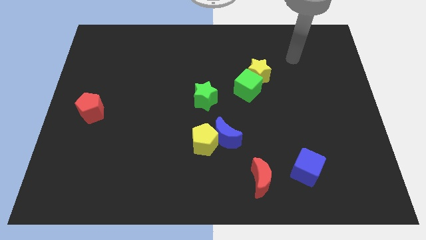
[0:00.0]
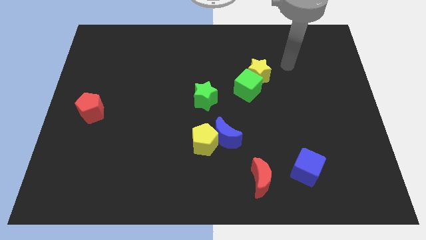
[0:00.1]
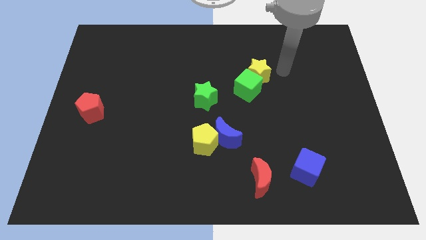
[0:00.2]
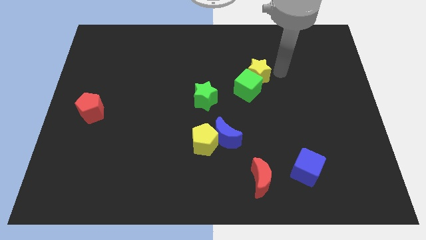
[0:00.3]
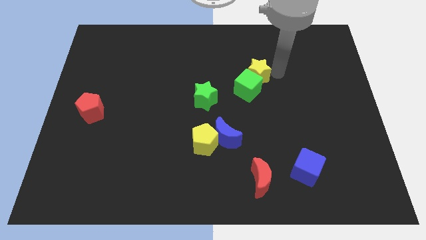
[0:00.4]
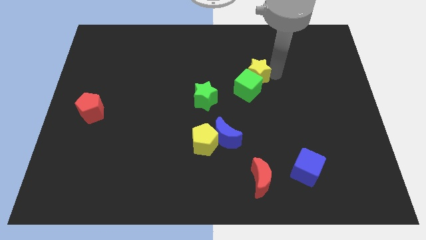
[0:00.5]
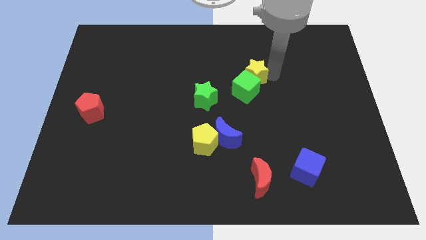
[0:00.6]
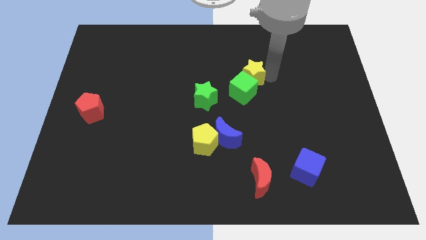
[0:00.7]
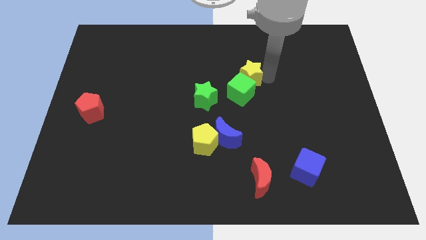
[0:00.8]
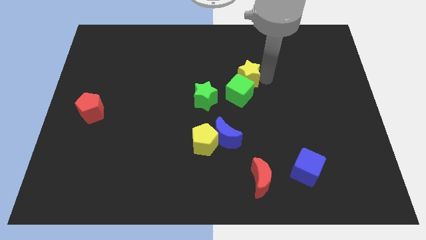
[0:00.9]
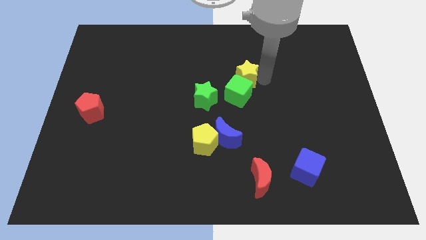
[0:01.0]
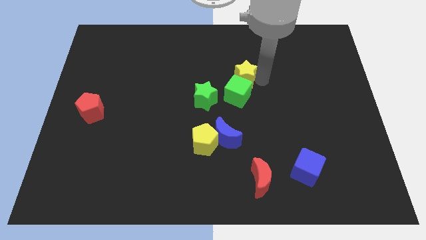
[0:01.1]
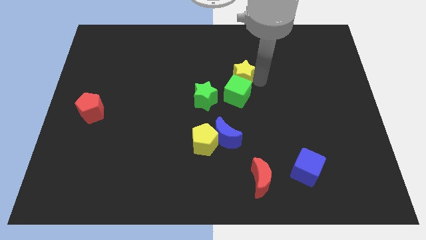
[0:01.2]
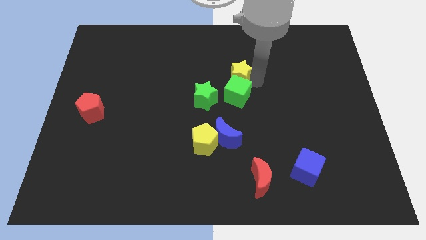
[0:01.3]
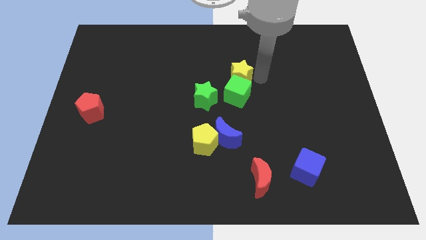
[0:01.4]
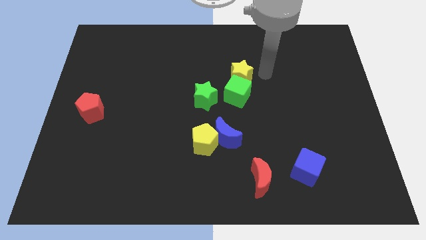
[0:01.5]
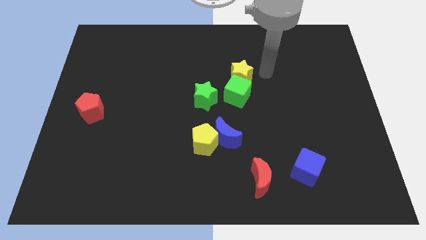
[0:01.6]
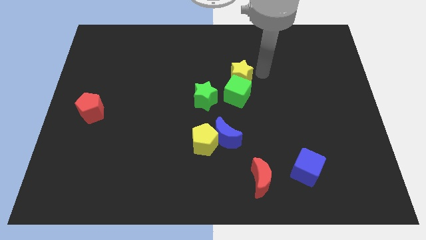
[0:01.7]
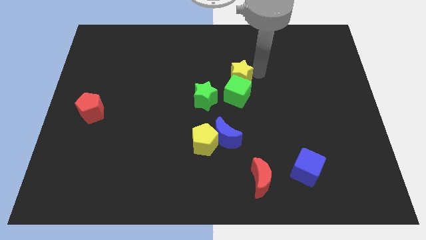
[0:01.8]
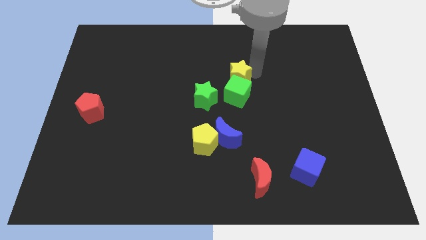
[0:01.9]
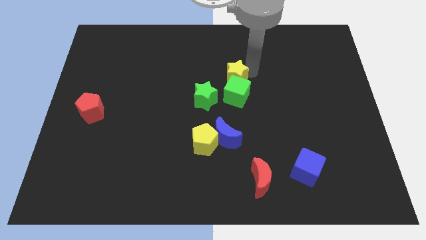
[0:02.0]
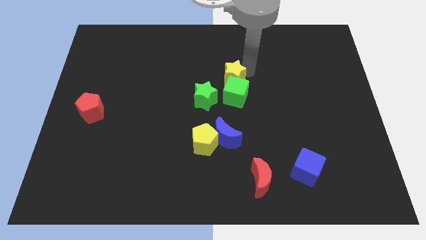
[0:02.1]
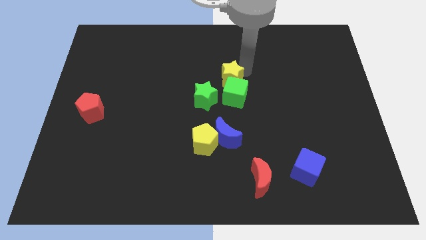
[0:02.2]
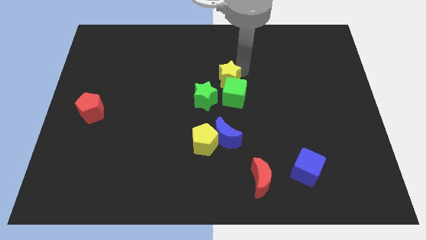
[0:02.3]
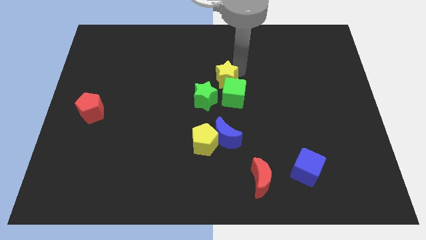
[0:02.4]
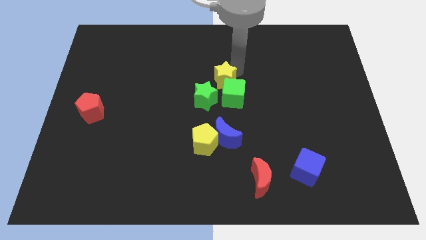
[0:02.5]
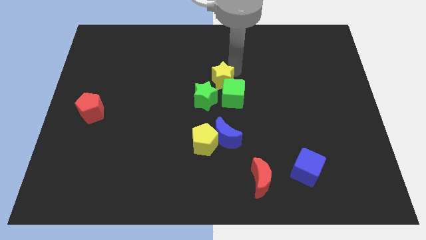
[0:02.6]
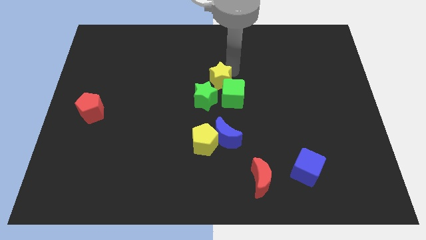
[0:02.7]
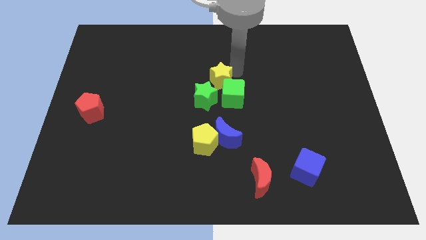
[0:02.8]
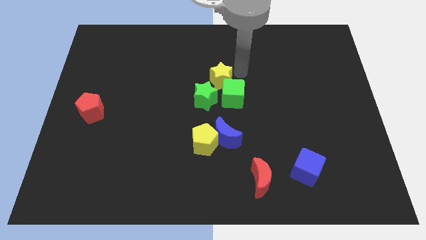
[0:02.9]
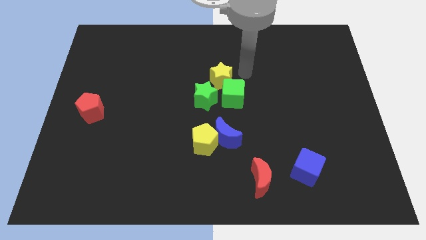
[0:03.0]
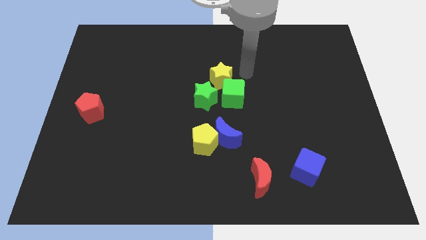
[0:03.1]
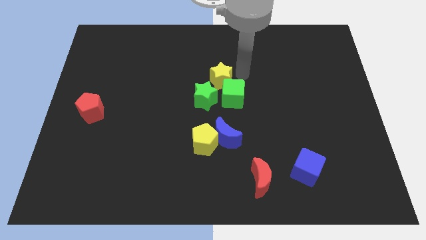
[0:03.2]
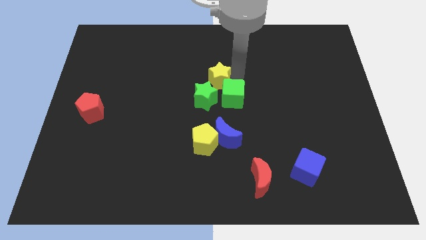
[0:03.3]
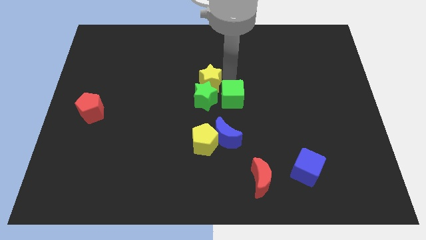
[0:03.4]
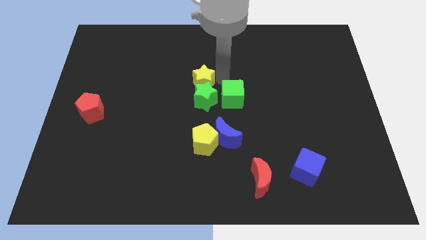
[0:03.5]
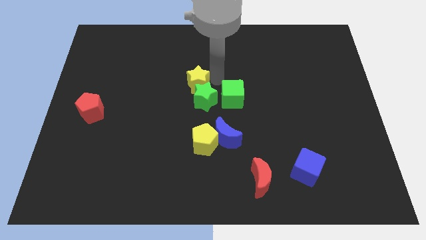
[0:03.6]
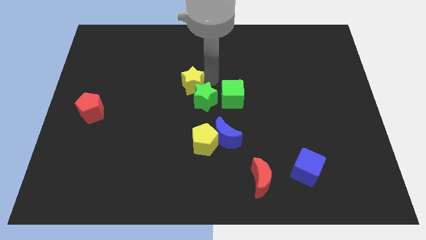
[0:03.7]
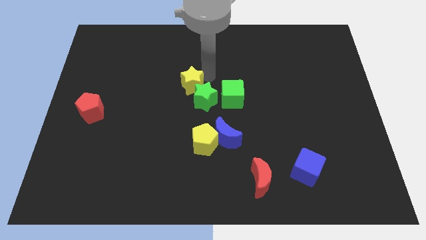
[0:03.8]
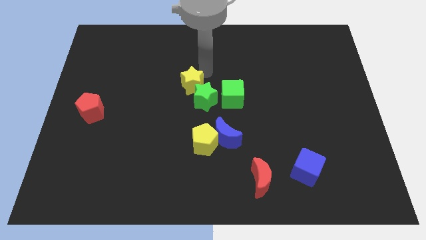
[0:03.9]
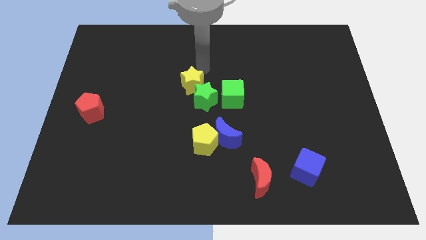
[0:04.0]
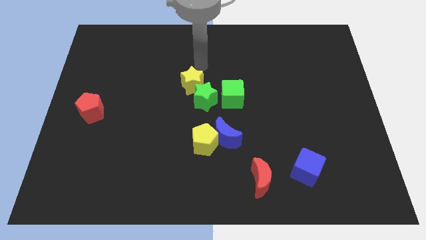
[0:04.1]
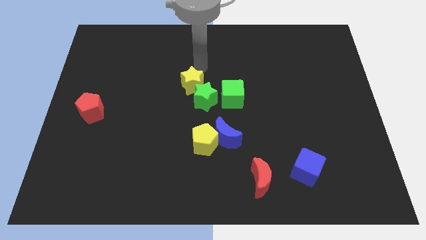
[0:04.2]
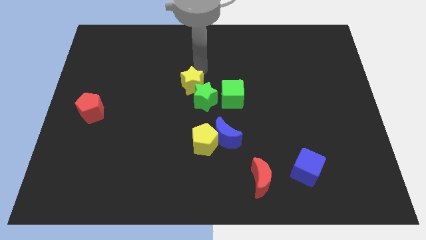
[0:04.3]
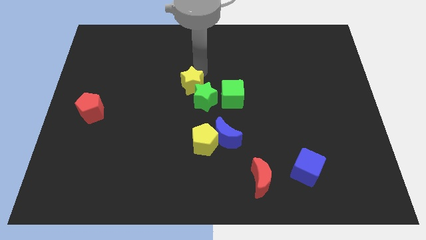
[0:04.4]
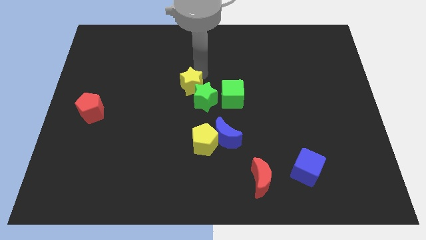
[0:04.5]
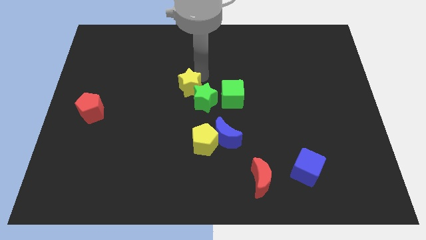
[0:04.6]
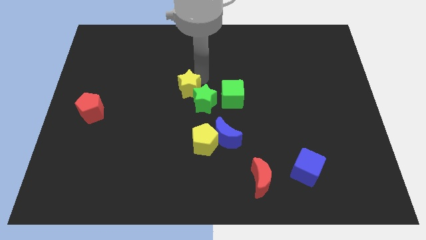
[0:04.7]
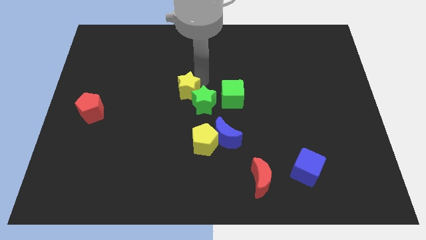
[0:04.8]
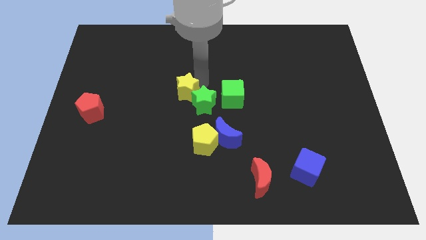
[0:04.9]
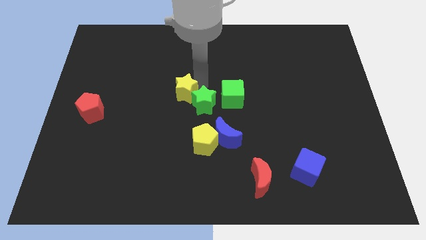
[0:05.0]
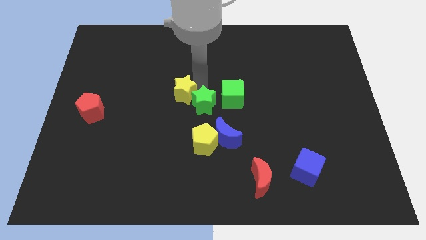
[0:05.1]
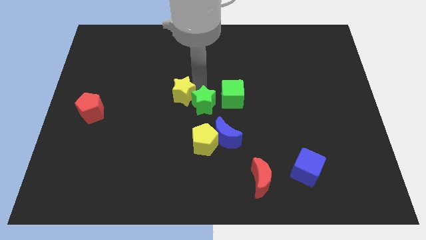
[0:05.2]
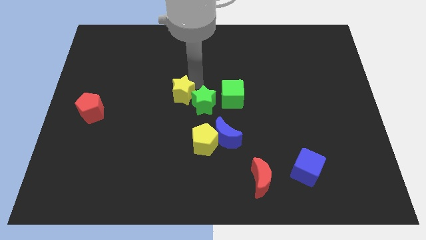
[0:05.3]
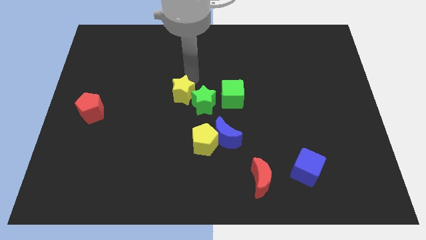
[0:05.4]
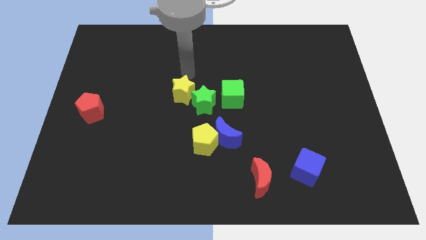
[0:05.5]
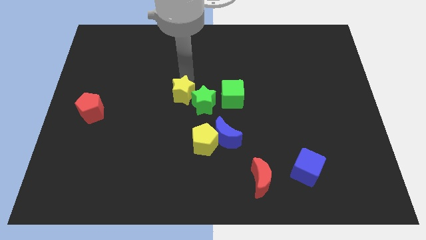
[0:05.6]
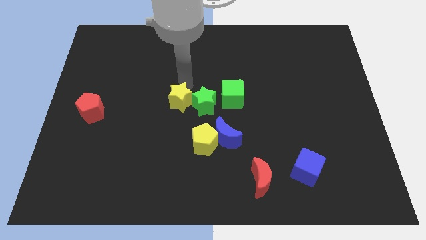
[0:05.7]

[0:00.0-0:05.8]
slide the yellow star to the bottom left of the green star

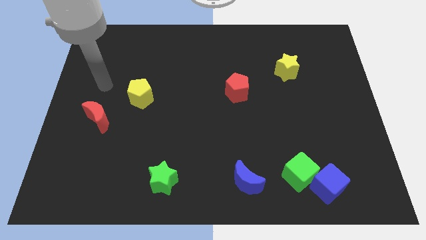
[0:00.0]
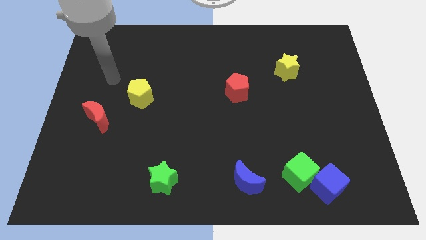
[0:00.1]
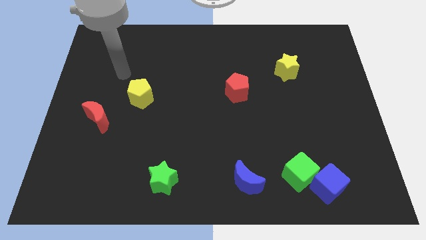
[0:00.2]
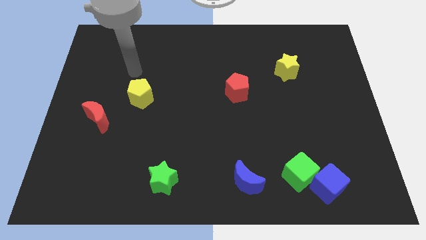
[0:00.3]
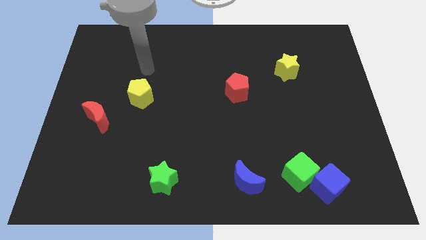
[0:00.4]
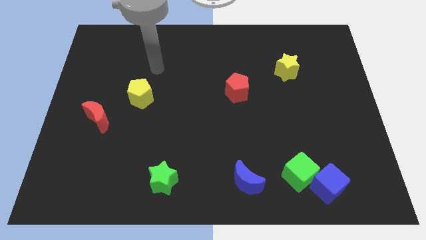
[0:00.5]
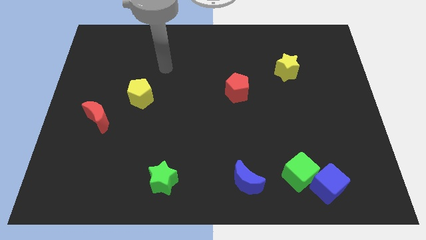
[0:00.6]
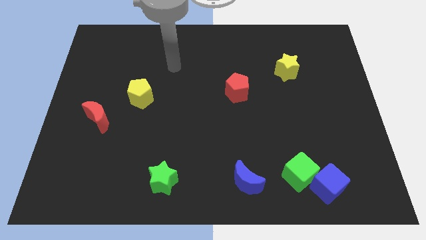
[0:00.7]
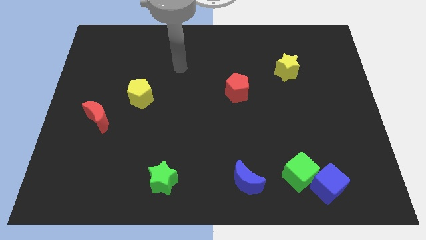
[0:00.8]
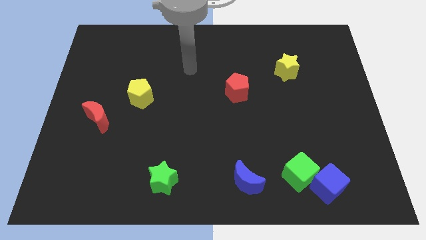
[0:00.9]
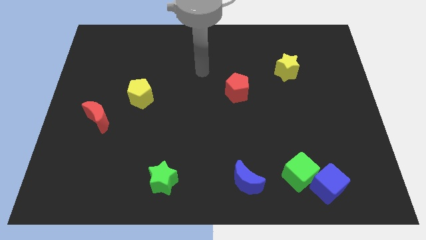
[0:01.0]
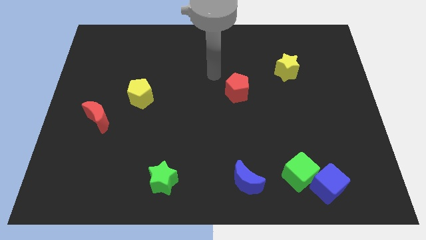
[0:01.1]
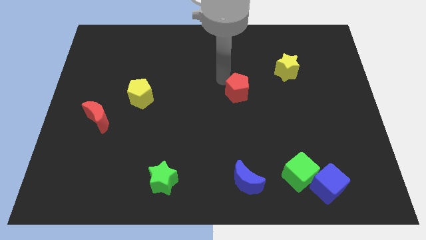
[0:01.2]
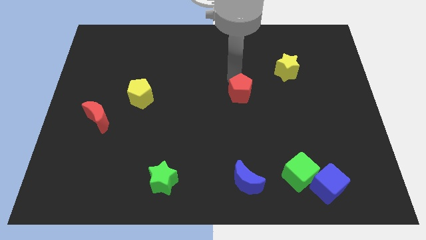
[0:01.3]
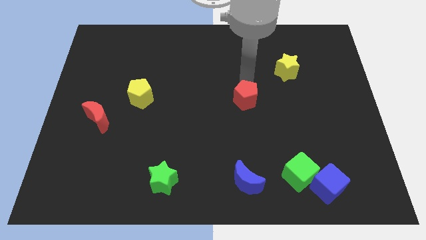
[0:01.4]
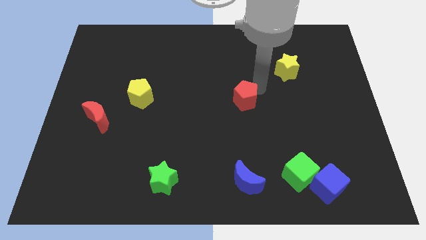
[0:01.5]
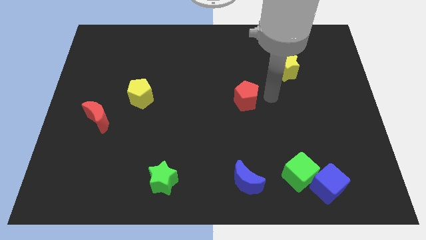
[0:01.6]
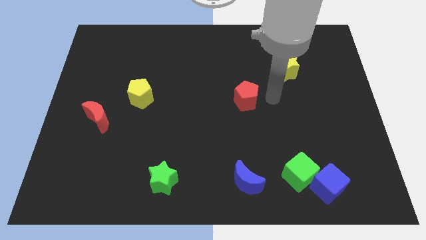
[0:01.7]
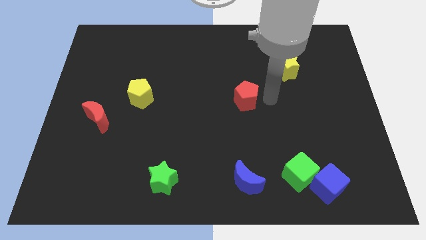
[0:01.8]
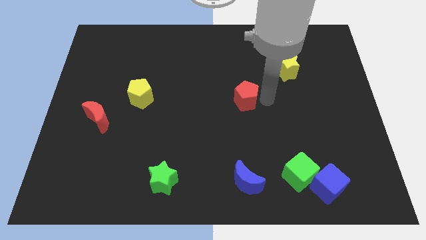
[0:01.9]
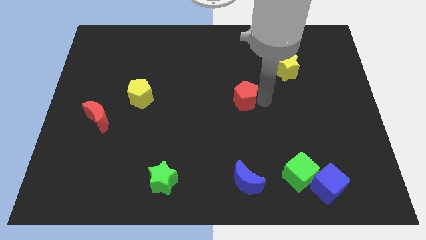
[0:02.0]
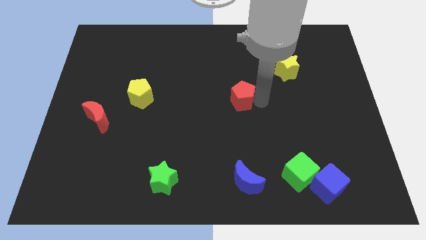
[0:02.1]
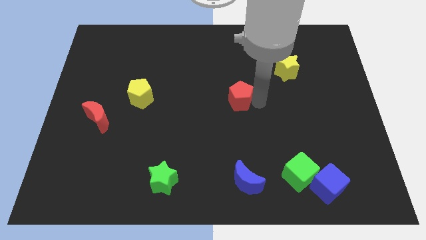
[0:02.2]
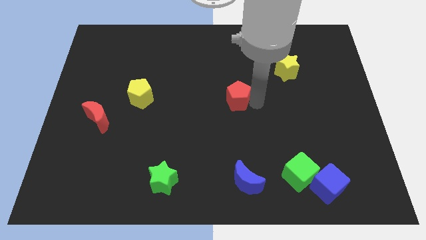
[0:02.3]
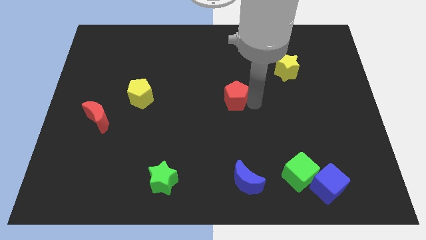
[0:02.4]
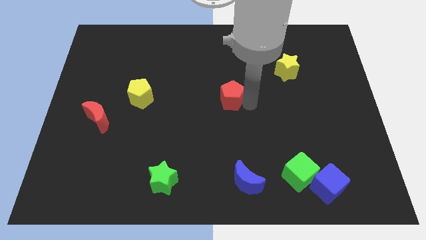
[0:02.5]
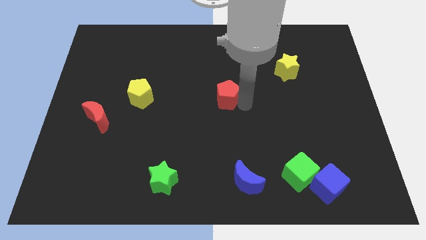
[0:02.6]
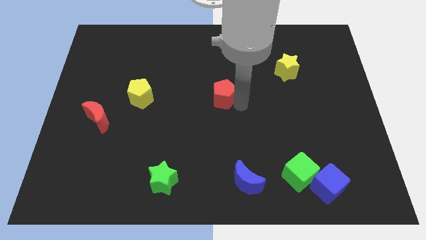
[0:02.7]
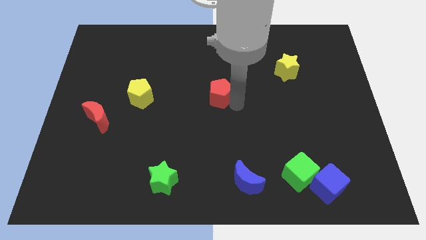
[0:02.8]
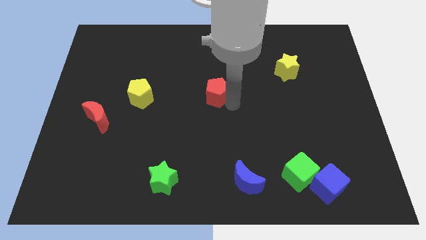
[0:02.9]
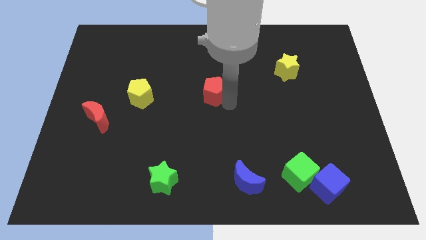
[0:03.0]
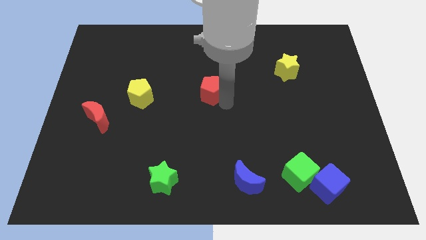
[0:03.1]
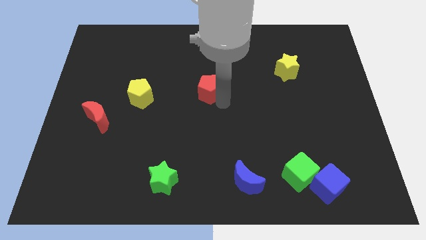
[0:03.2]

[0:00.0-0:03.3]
move the red pentagon to the right side of the yellow pentagon
